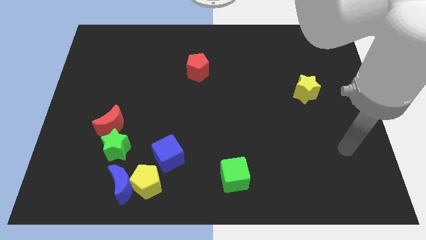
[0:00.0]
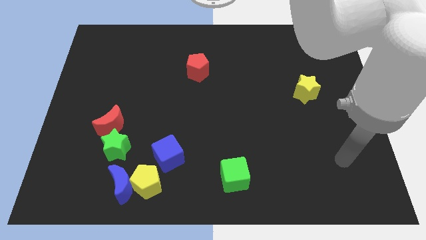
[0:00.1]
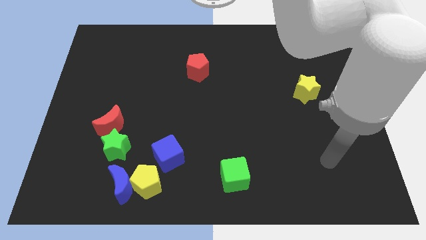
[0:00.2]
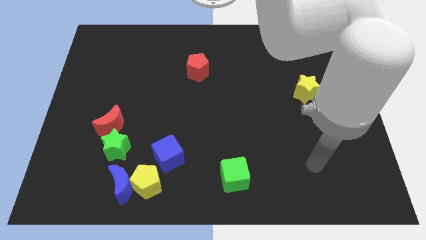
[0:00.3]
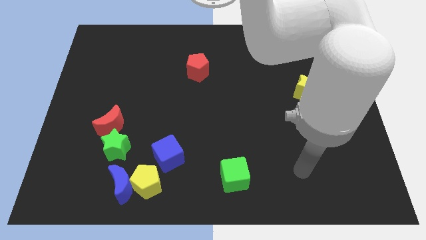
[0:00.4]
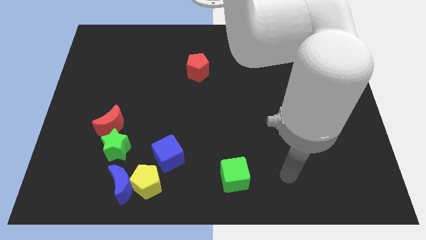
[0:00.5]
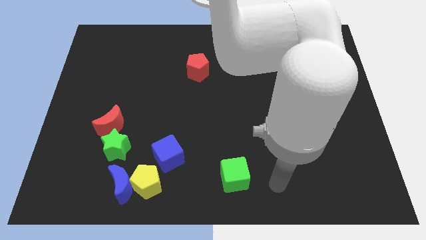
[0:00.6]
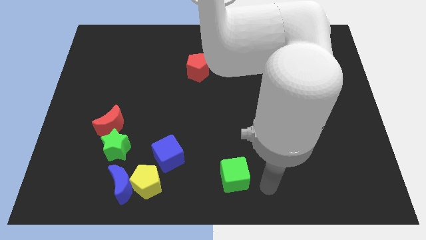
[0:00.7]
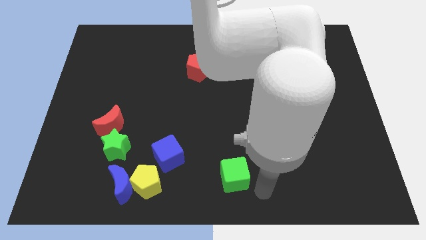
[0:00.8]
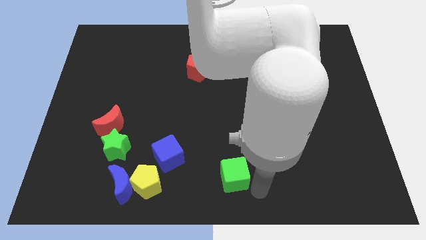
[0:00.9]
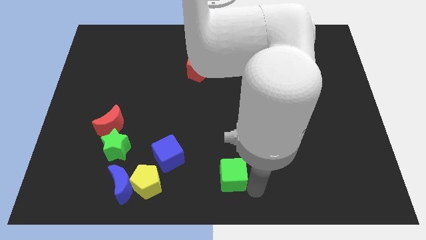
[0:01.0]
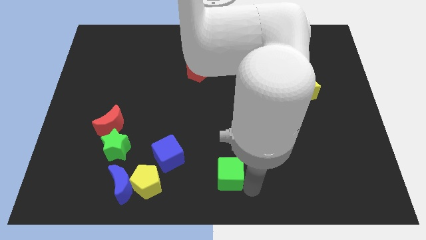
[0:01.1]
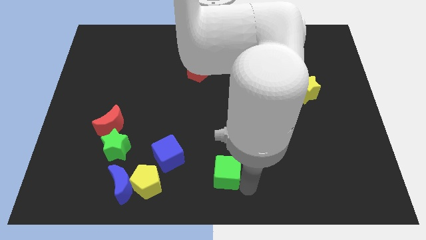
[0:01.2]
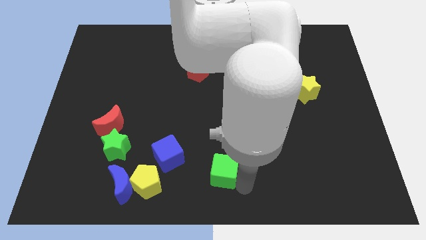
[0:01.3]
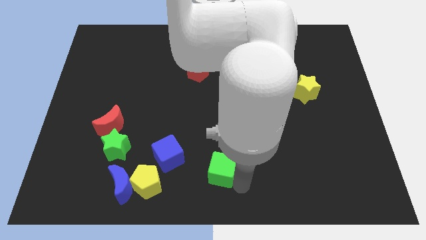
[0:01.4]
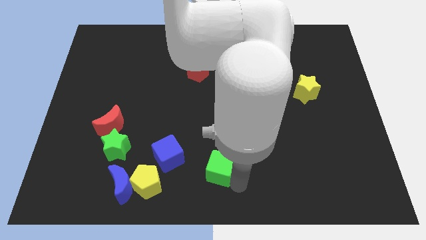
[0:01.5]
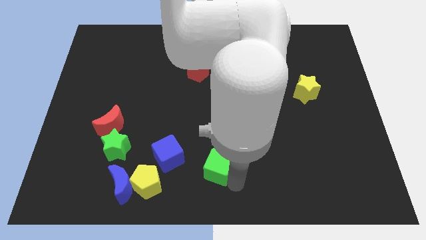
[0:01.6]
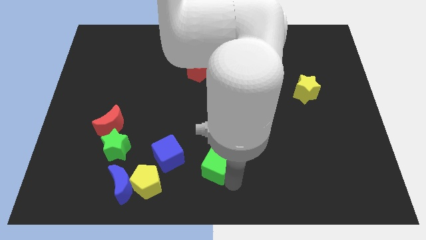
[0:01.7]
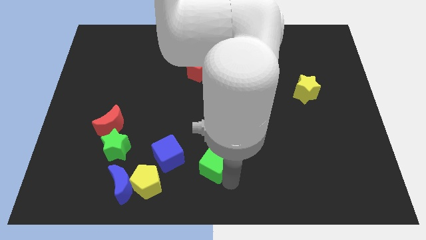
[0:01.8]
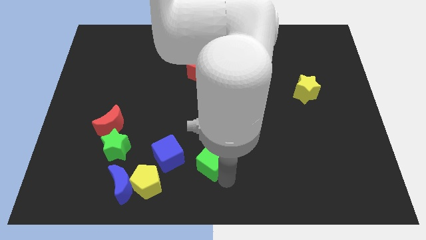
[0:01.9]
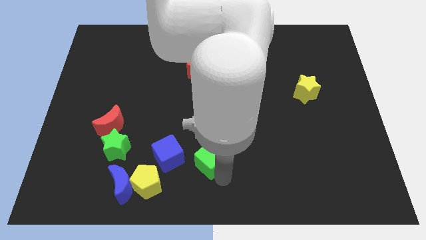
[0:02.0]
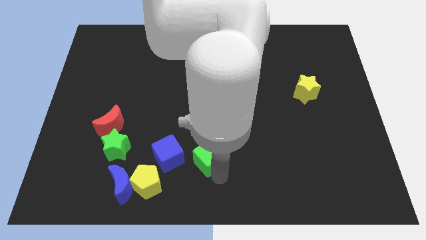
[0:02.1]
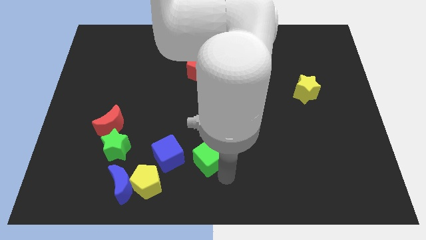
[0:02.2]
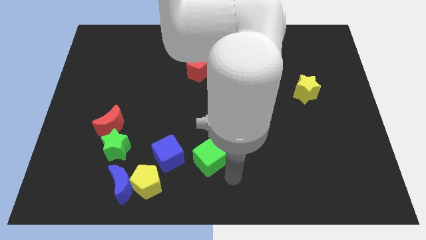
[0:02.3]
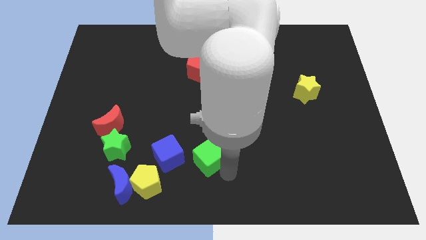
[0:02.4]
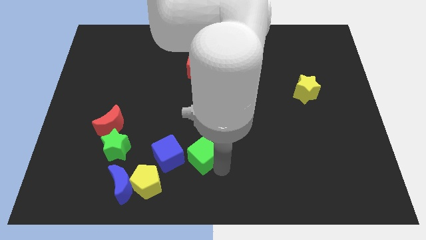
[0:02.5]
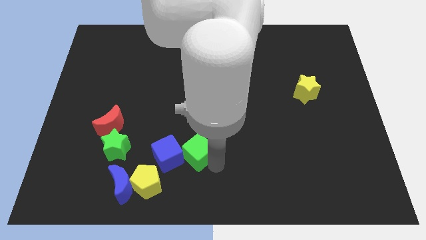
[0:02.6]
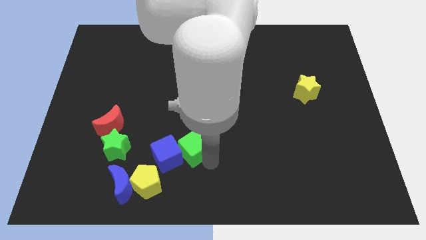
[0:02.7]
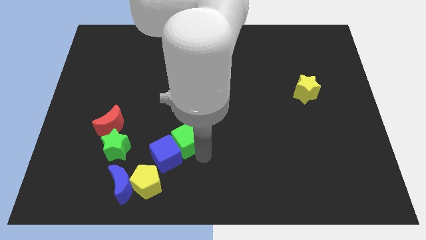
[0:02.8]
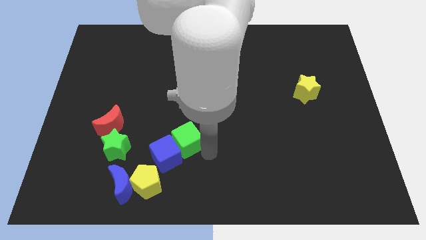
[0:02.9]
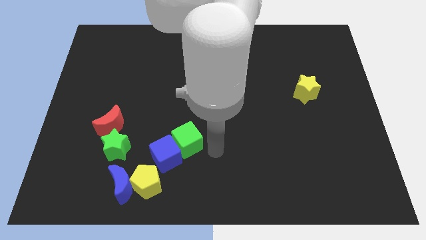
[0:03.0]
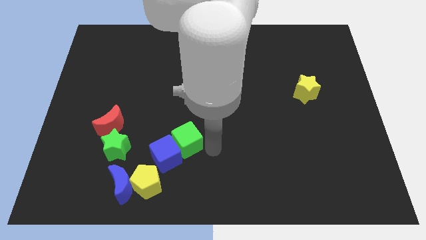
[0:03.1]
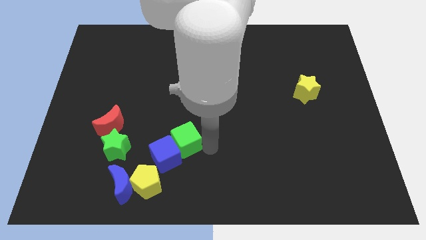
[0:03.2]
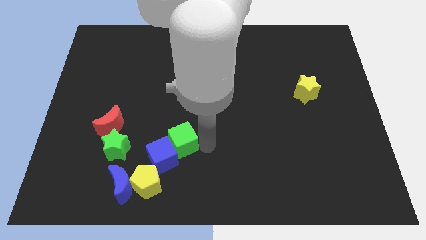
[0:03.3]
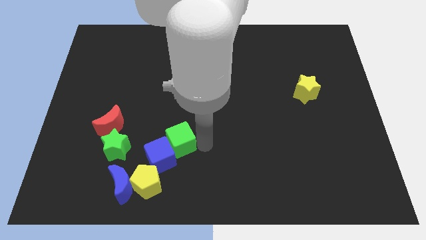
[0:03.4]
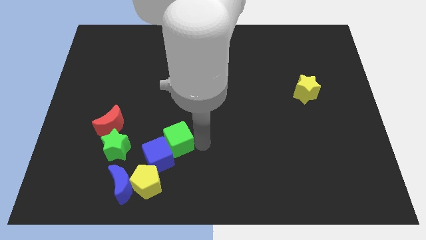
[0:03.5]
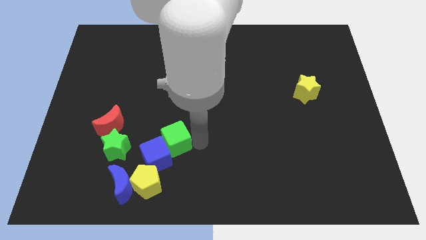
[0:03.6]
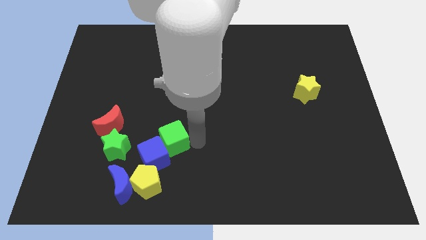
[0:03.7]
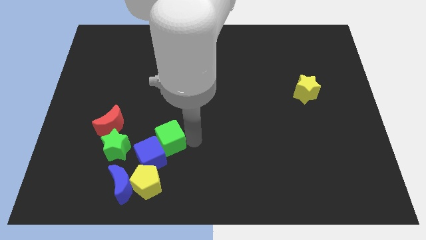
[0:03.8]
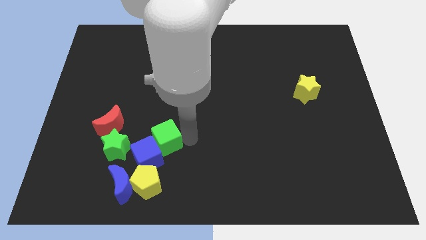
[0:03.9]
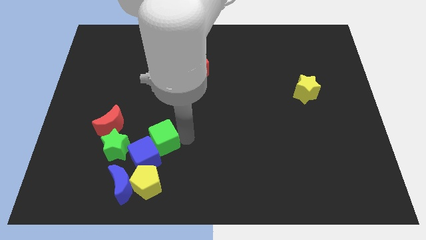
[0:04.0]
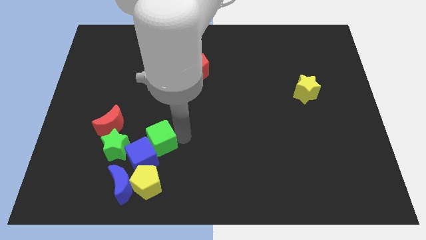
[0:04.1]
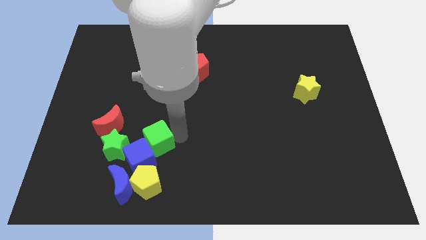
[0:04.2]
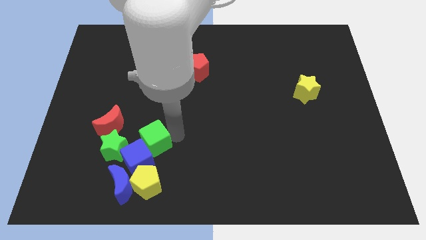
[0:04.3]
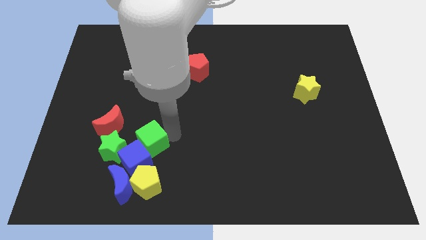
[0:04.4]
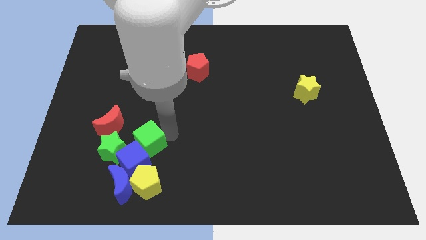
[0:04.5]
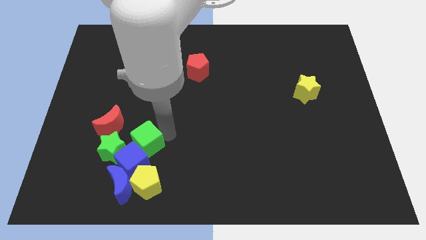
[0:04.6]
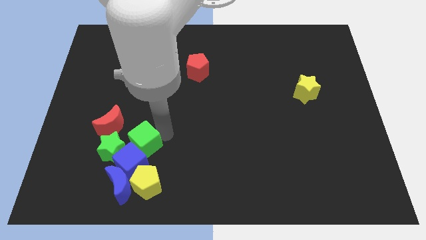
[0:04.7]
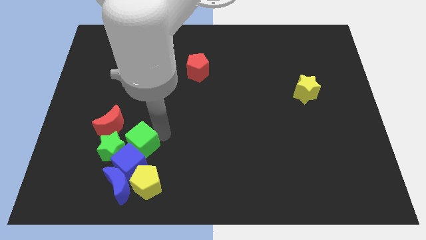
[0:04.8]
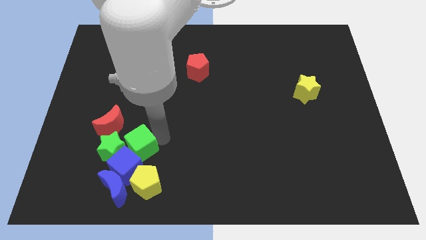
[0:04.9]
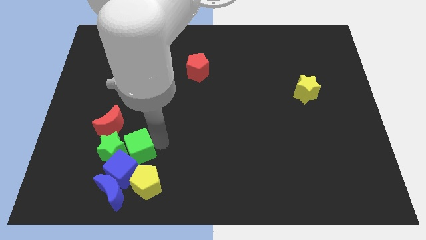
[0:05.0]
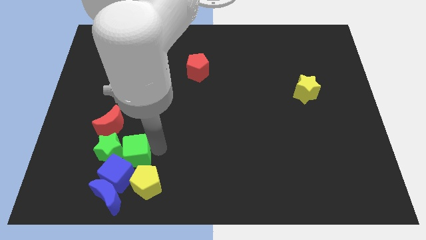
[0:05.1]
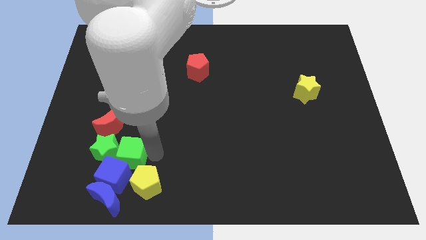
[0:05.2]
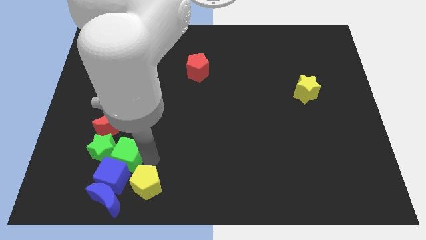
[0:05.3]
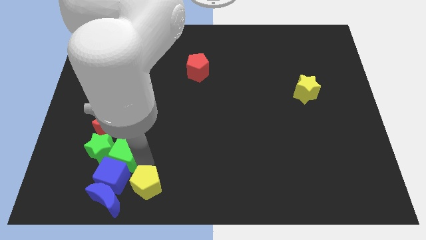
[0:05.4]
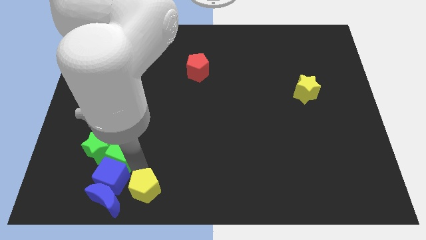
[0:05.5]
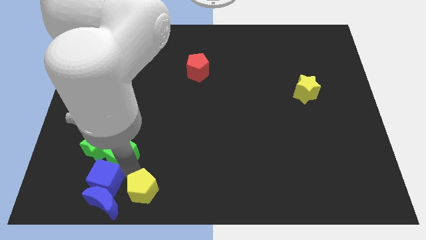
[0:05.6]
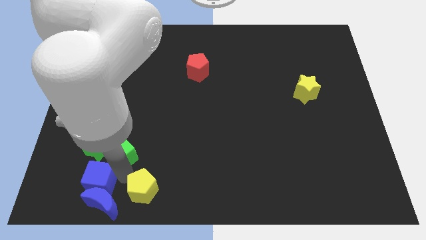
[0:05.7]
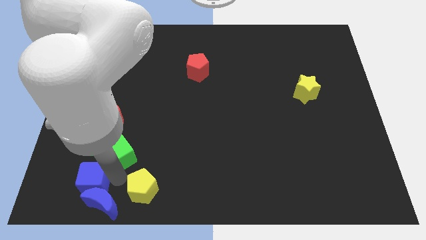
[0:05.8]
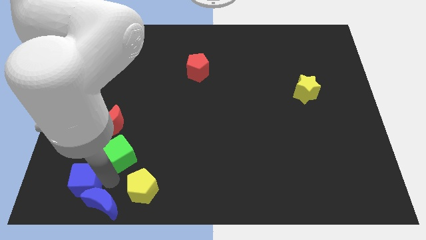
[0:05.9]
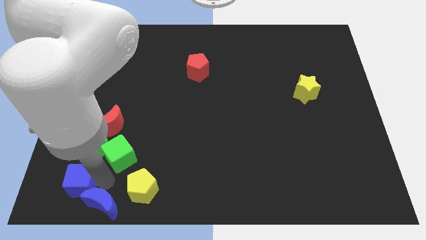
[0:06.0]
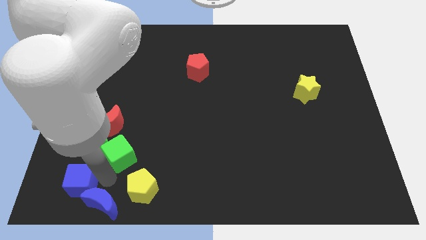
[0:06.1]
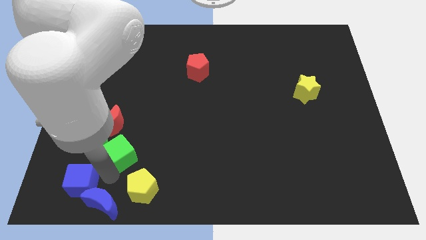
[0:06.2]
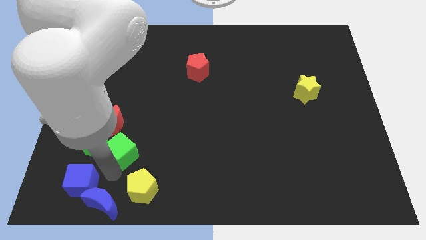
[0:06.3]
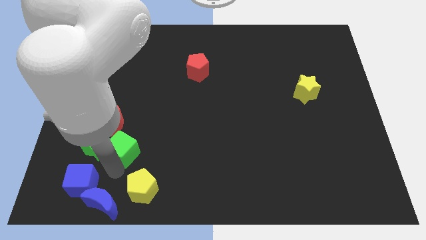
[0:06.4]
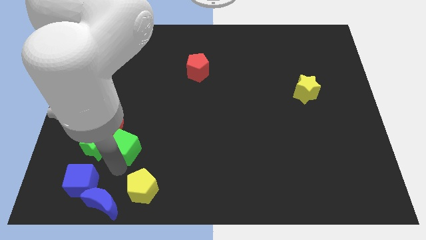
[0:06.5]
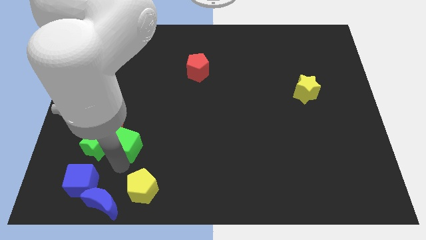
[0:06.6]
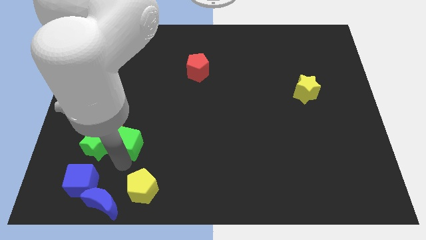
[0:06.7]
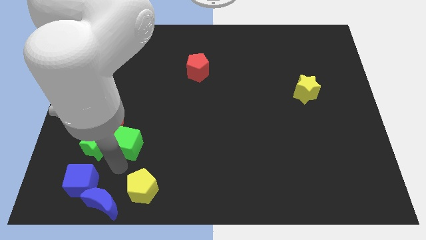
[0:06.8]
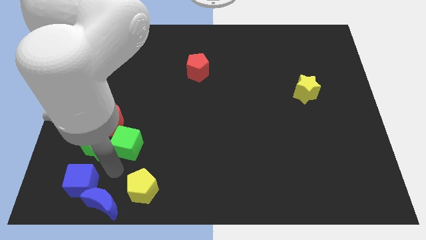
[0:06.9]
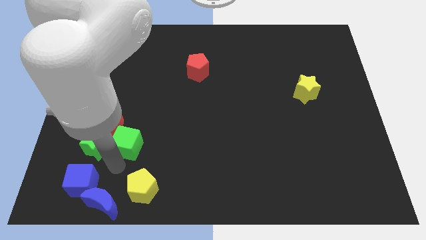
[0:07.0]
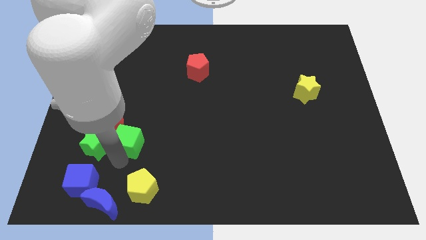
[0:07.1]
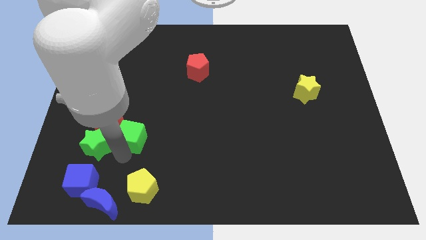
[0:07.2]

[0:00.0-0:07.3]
put the green cube next to the red moon
